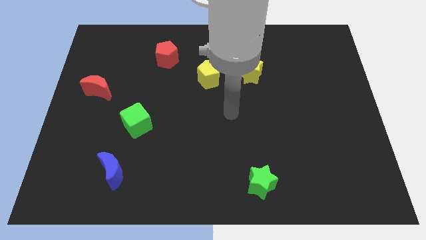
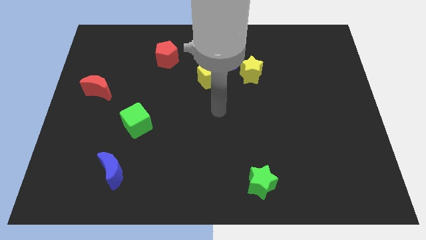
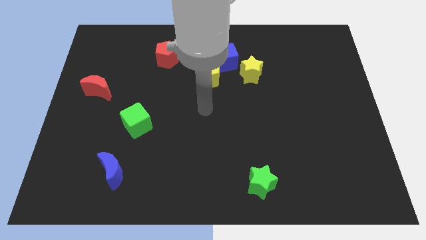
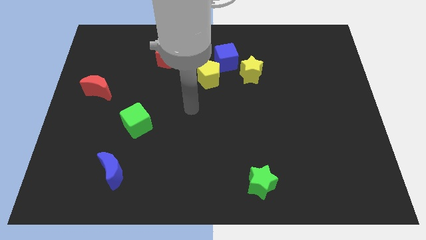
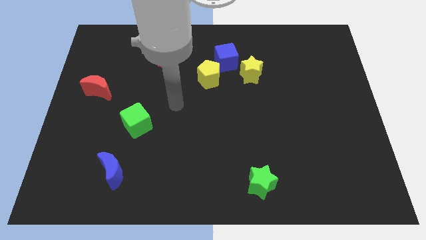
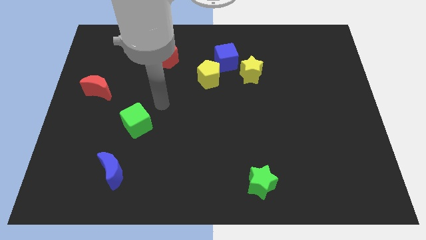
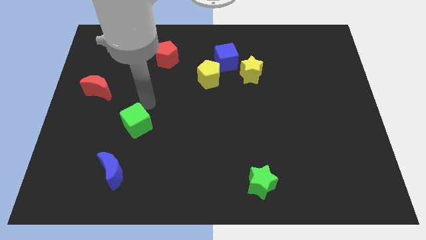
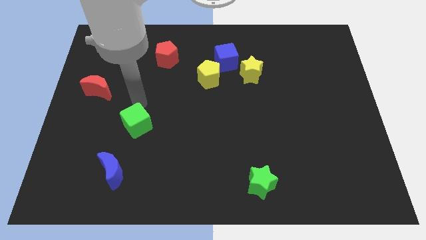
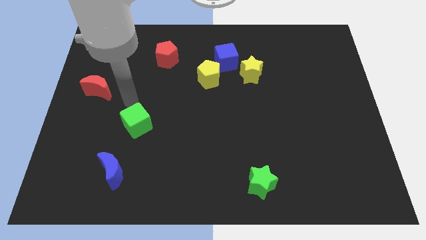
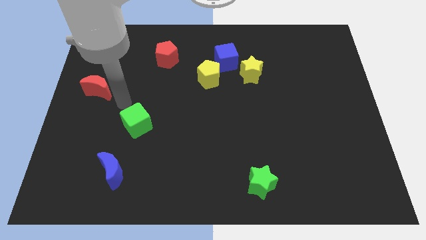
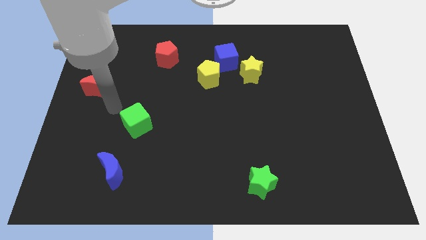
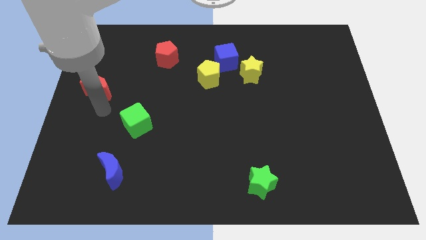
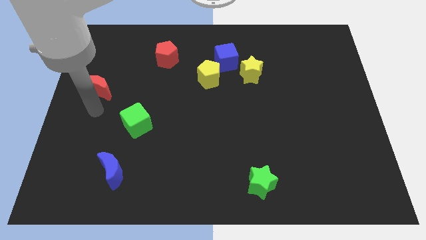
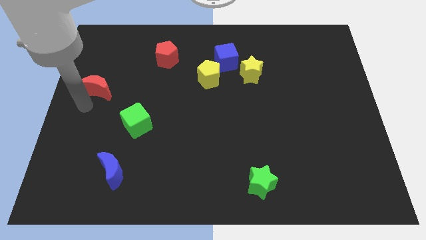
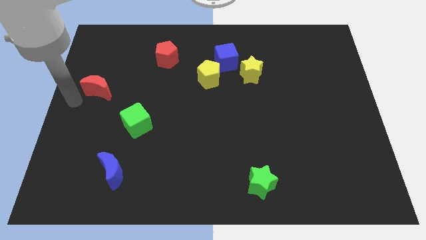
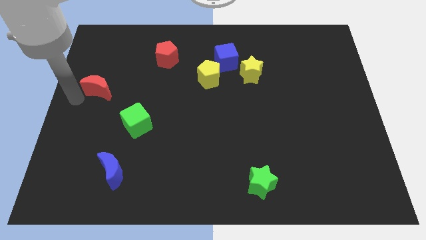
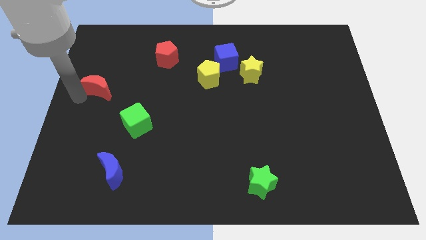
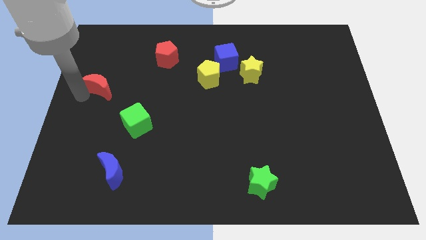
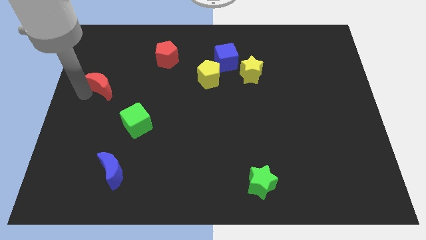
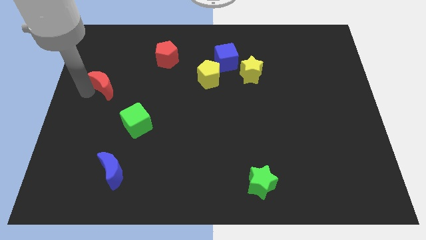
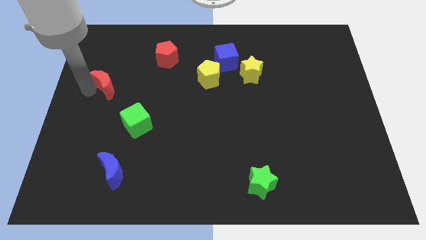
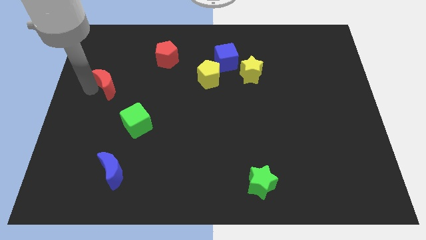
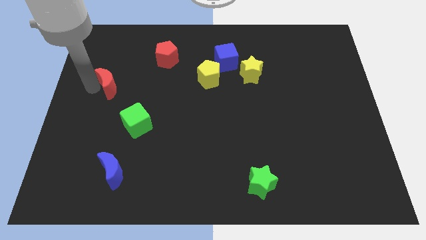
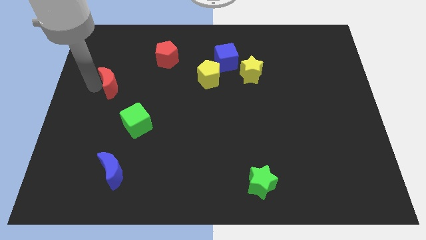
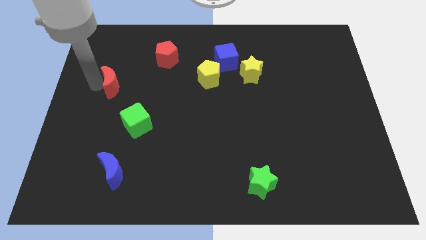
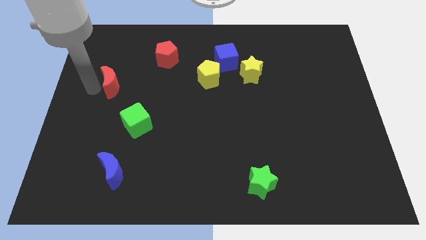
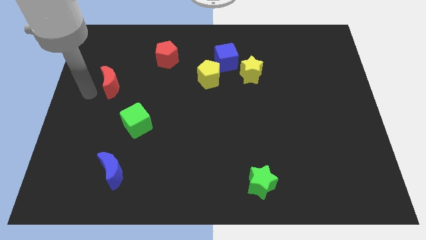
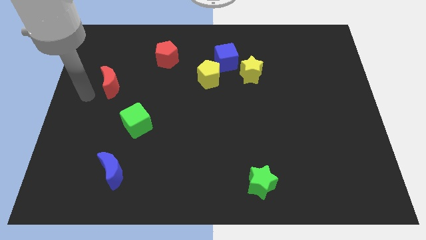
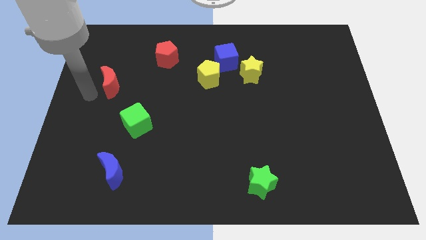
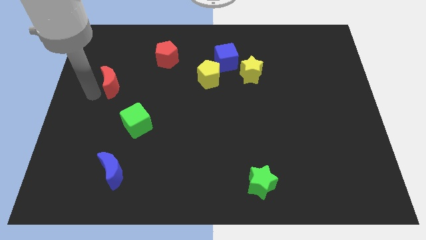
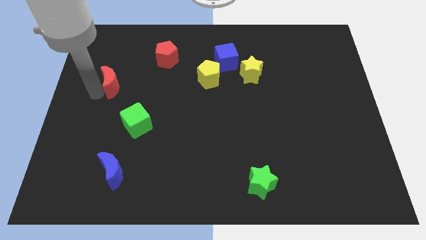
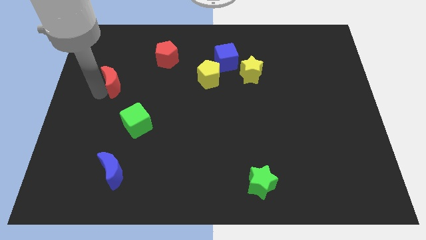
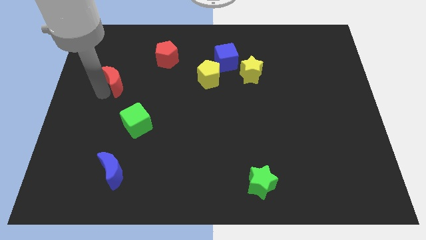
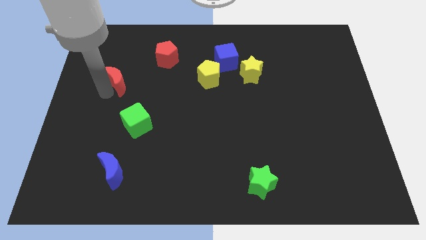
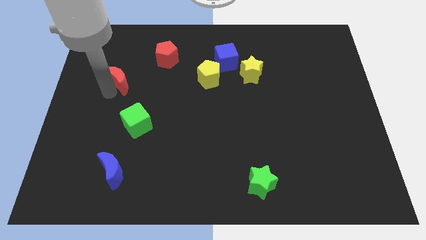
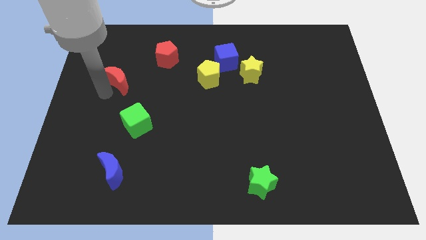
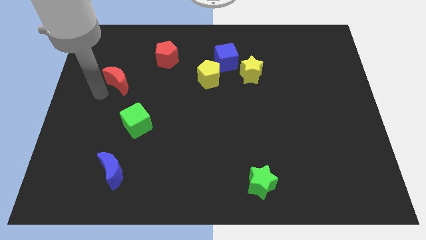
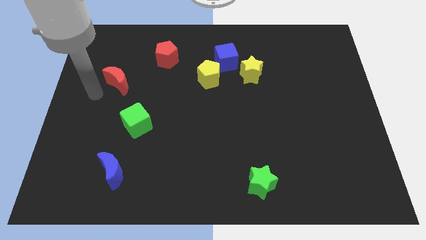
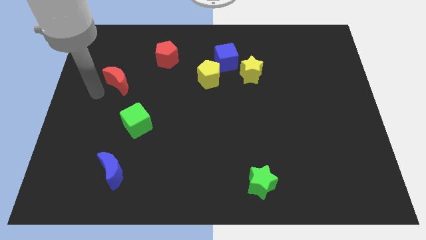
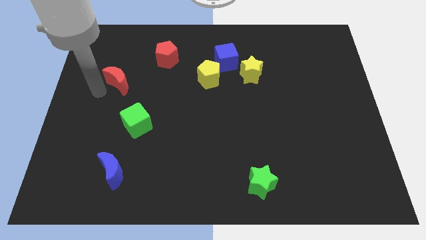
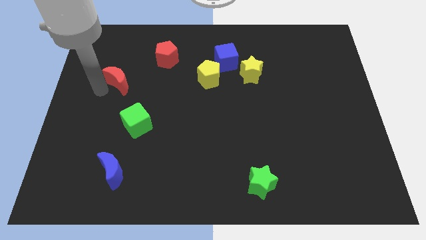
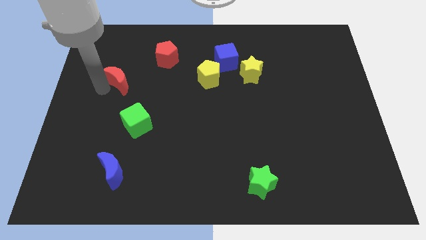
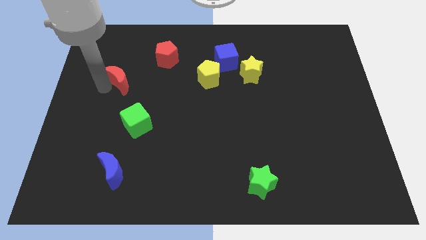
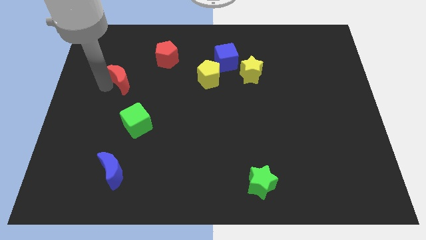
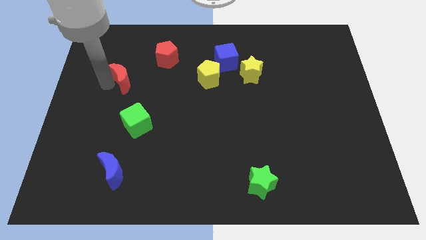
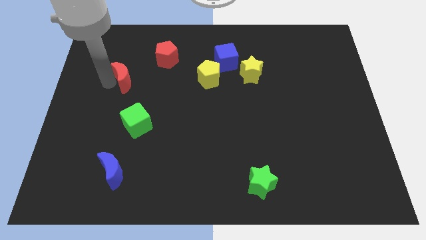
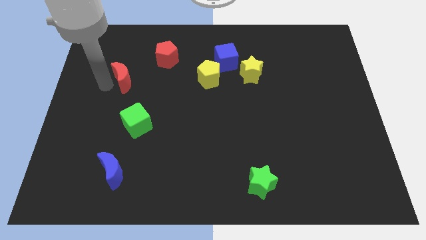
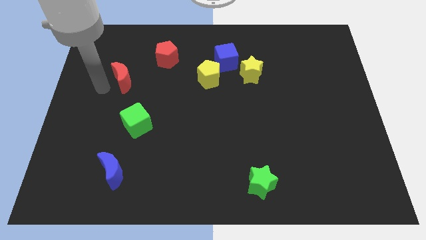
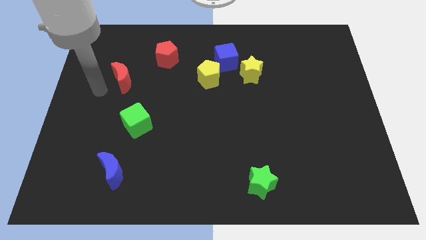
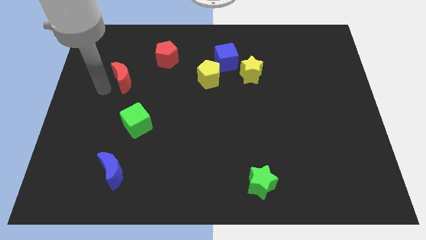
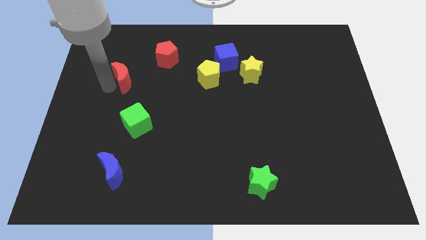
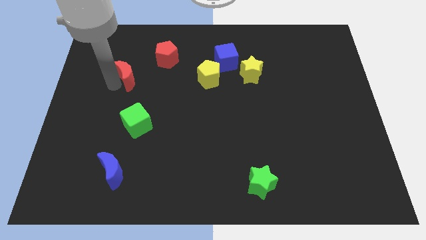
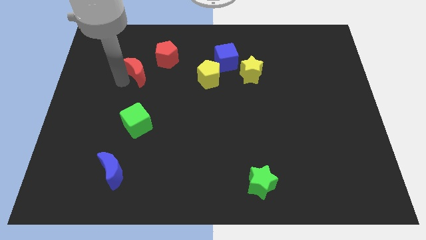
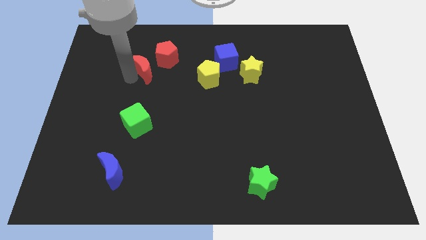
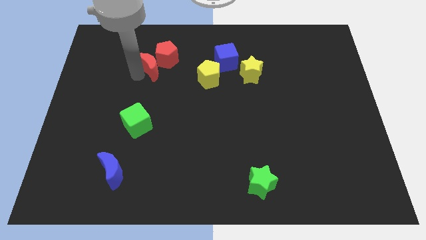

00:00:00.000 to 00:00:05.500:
put the red moon next to the red pentagon

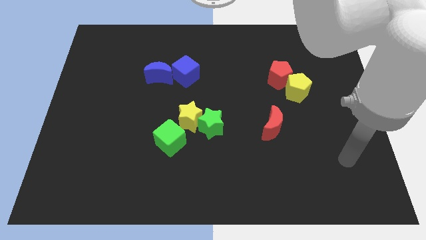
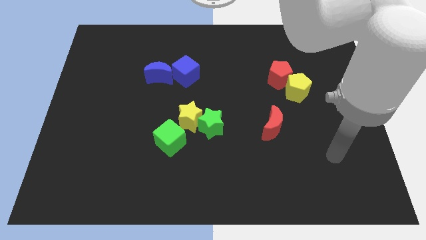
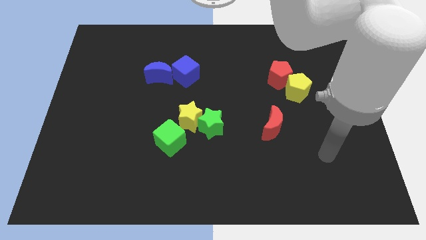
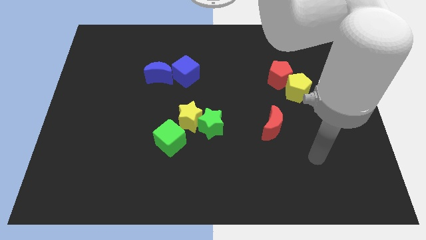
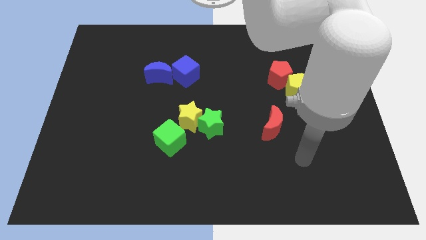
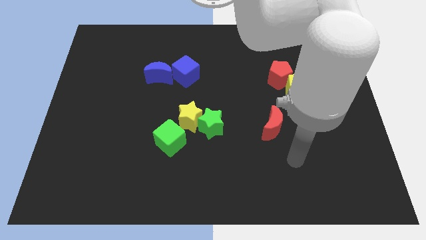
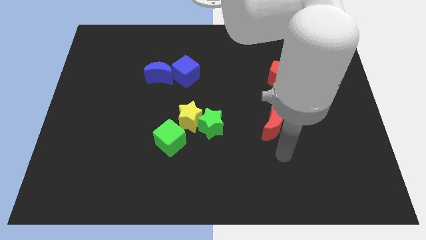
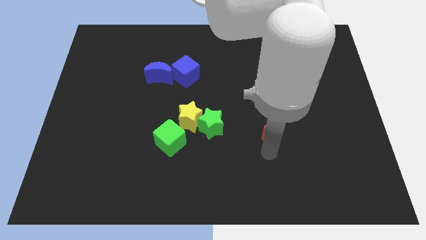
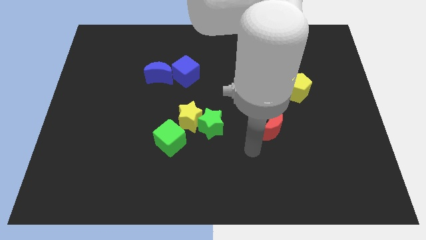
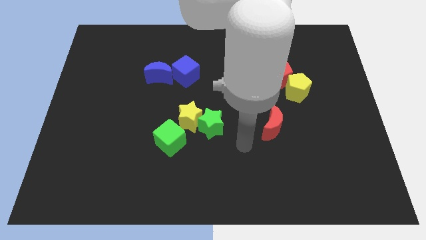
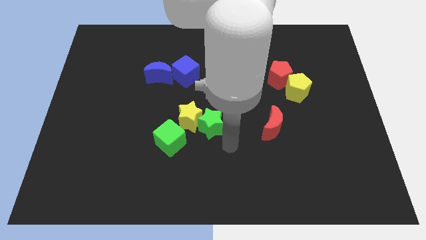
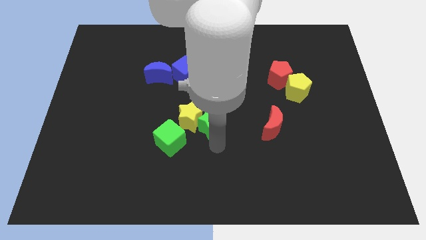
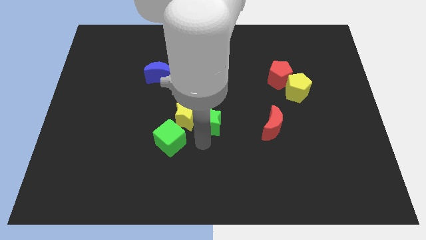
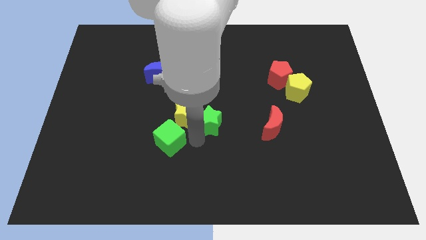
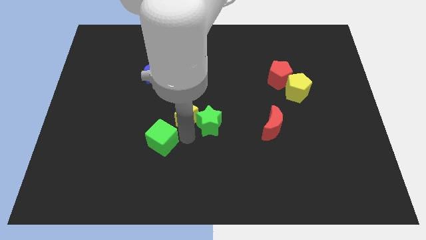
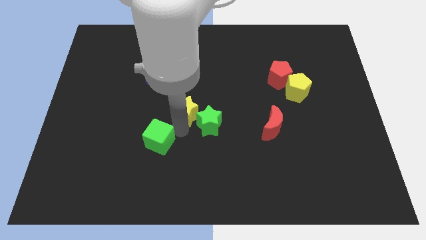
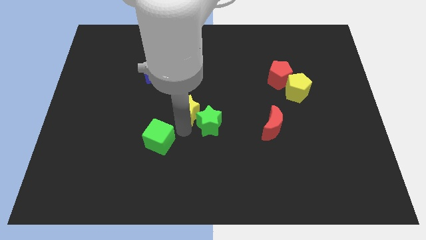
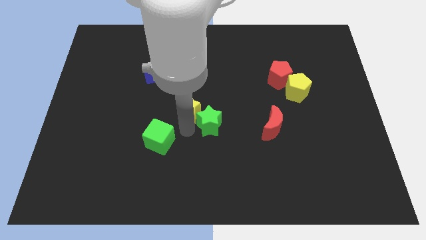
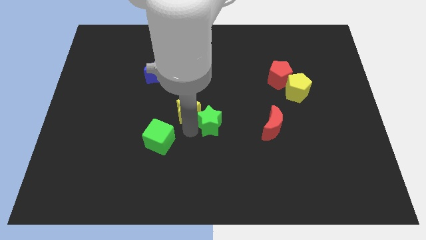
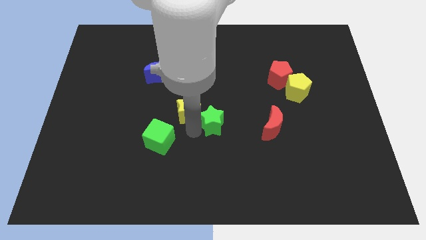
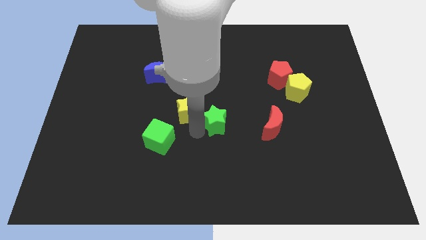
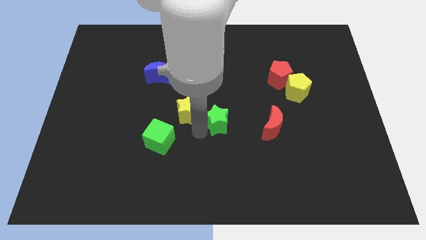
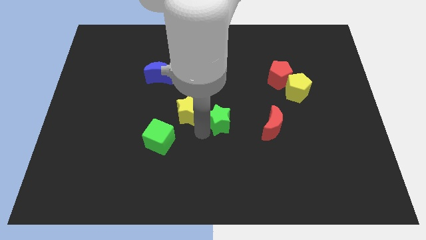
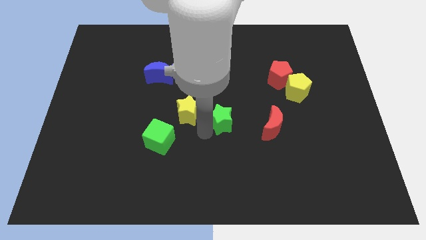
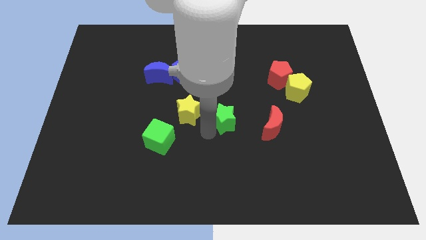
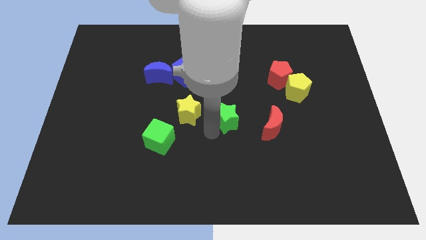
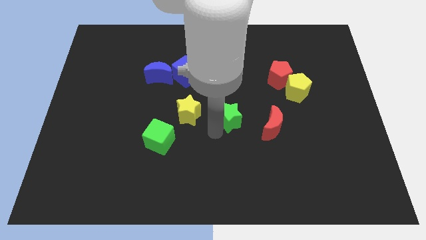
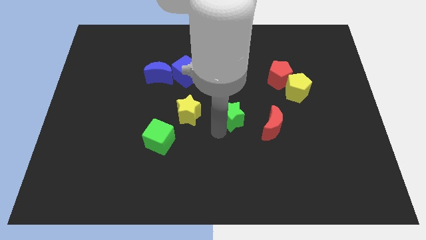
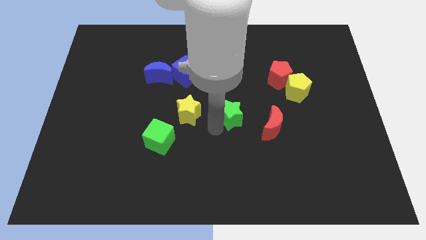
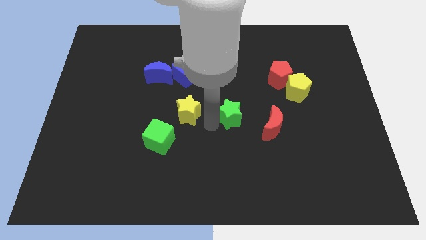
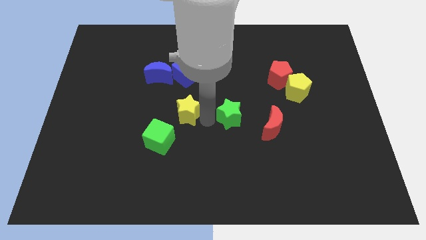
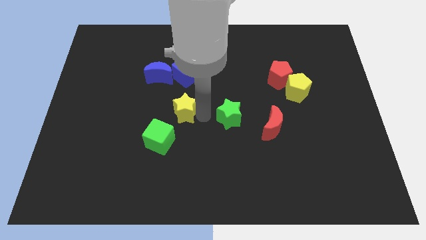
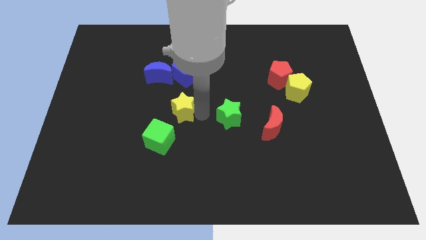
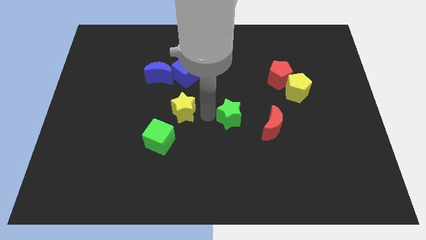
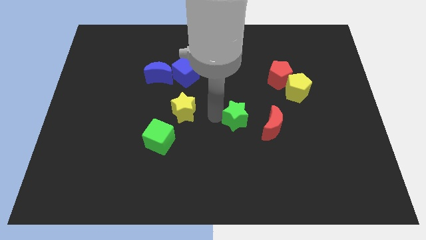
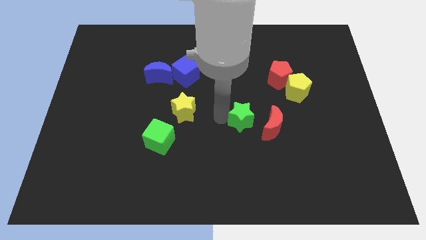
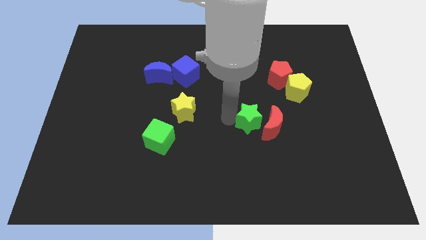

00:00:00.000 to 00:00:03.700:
put the green star close to the red moon
